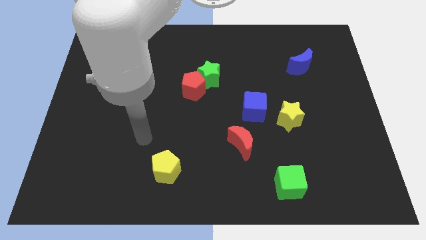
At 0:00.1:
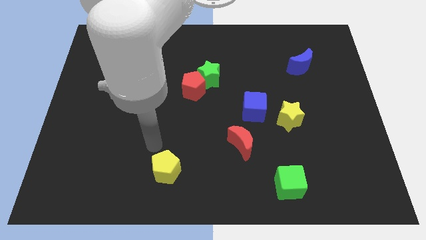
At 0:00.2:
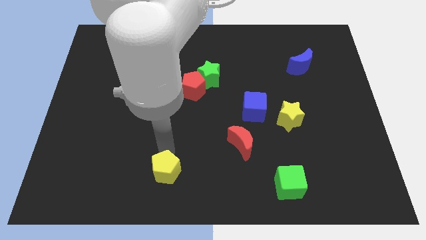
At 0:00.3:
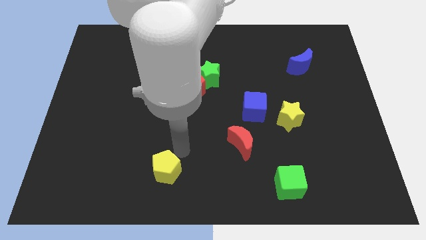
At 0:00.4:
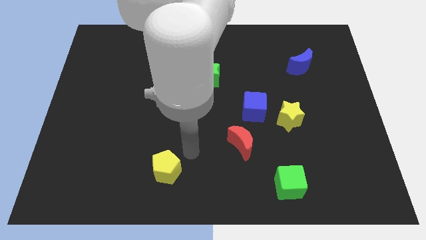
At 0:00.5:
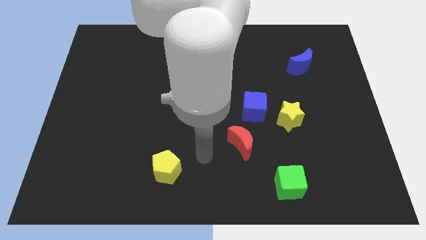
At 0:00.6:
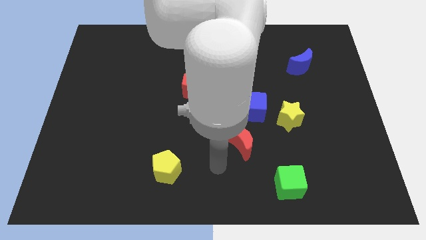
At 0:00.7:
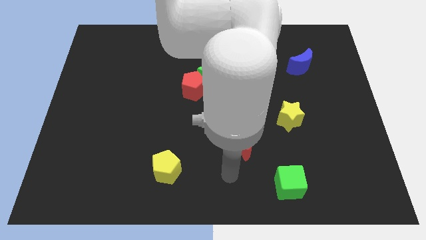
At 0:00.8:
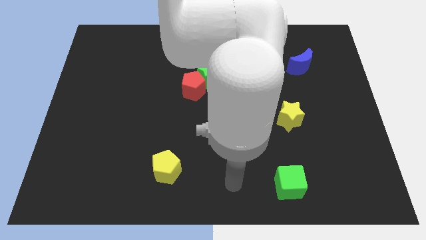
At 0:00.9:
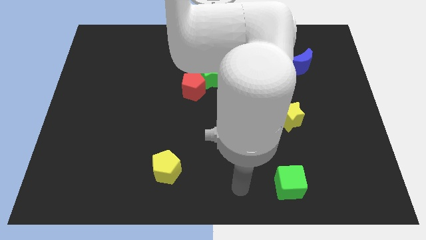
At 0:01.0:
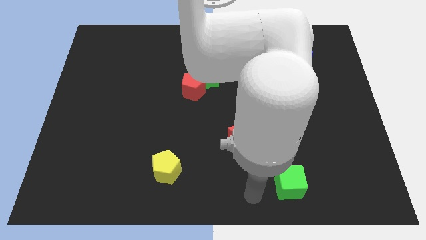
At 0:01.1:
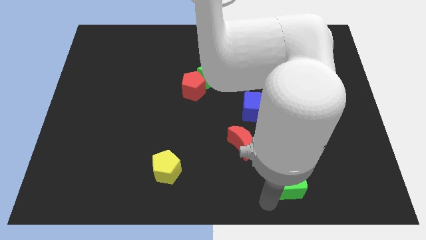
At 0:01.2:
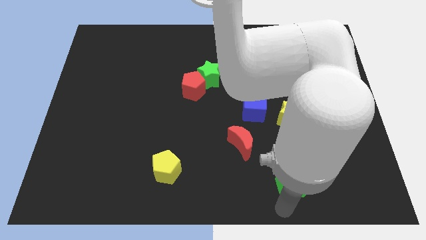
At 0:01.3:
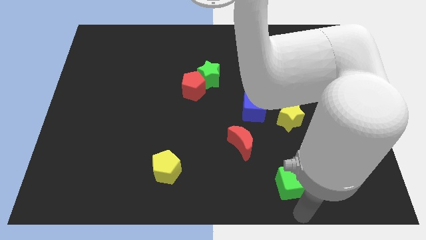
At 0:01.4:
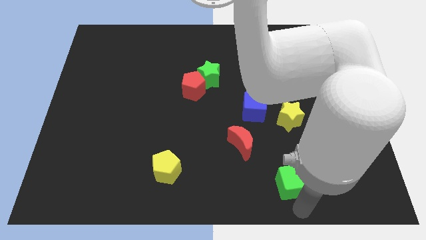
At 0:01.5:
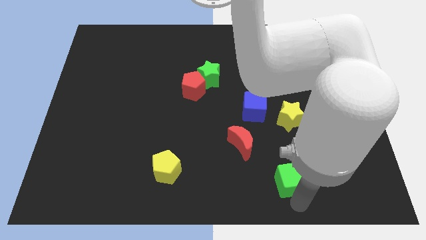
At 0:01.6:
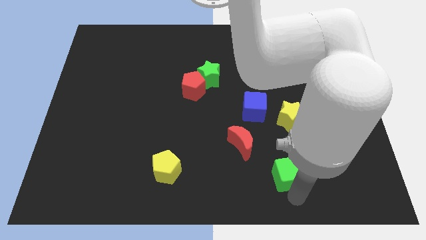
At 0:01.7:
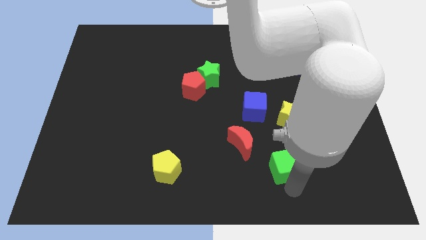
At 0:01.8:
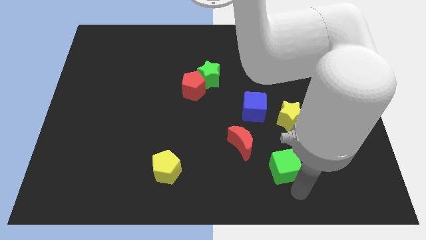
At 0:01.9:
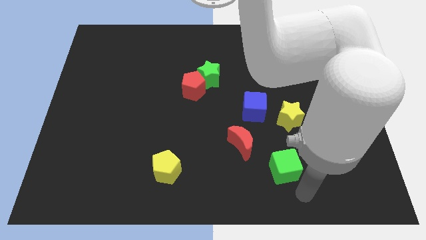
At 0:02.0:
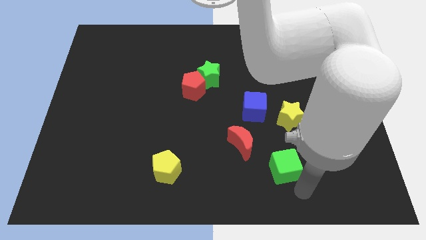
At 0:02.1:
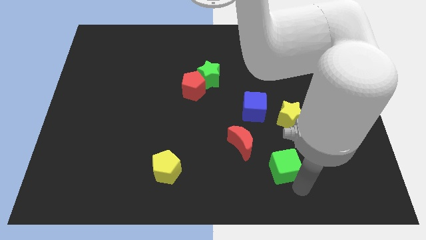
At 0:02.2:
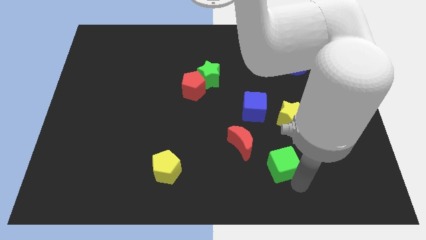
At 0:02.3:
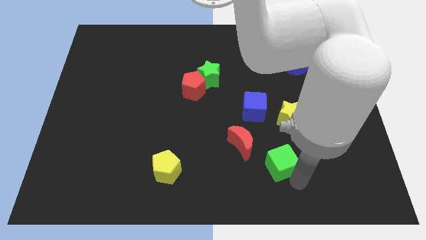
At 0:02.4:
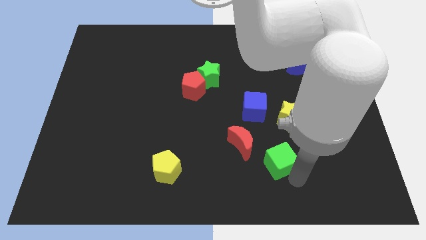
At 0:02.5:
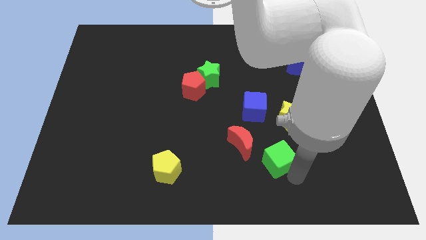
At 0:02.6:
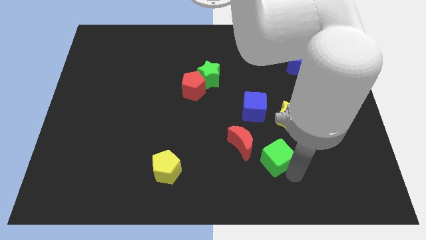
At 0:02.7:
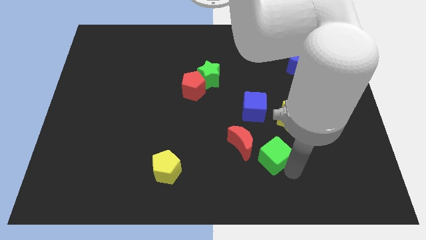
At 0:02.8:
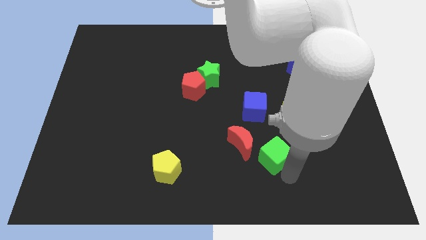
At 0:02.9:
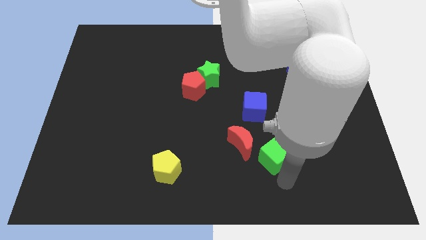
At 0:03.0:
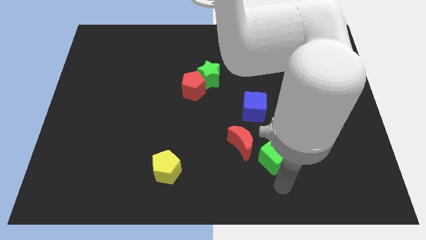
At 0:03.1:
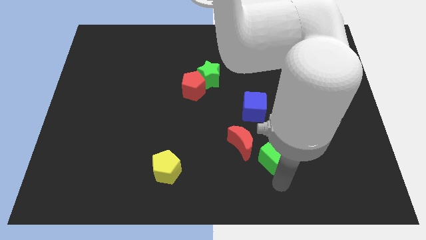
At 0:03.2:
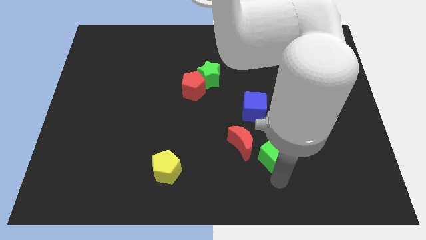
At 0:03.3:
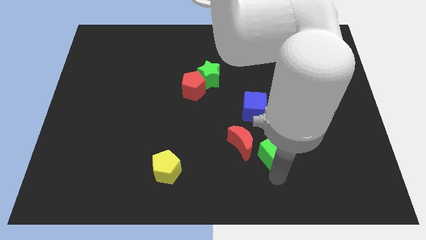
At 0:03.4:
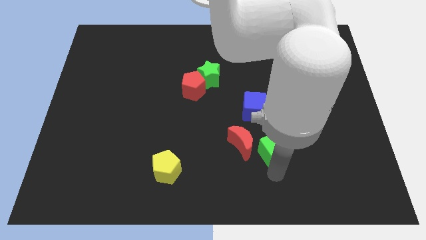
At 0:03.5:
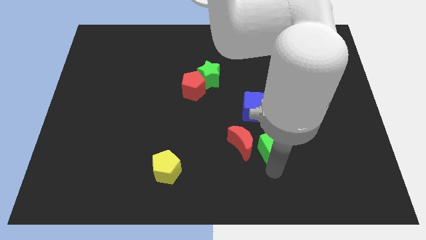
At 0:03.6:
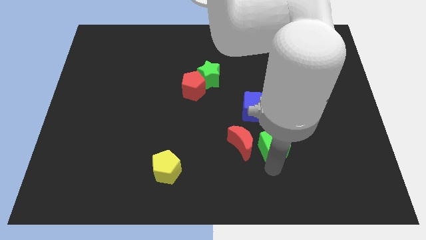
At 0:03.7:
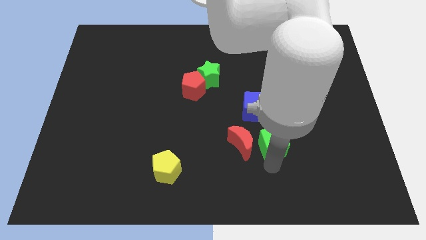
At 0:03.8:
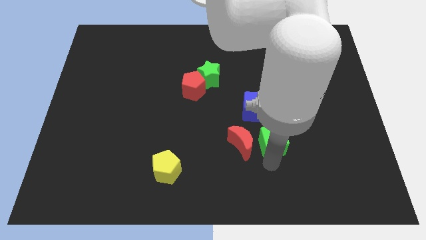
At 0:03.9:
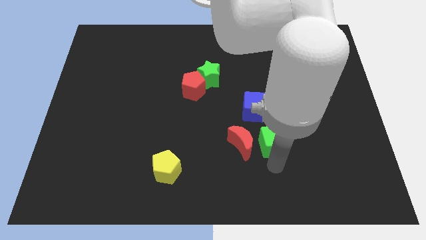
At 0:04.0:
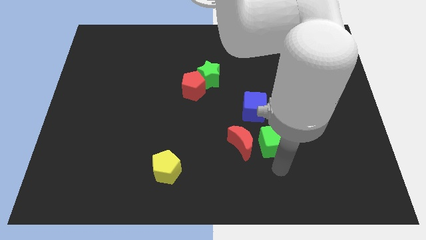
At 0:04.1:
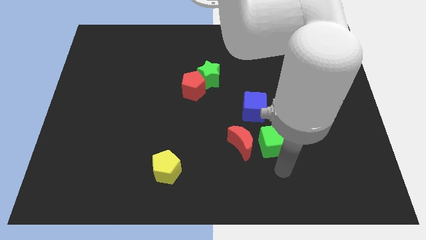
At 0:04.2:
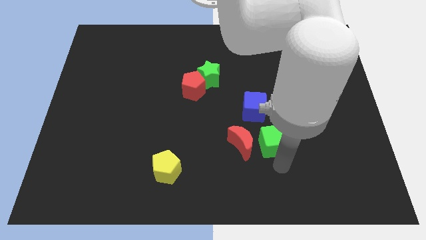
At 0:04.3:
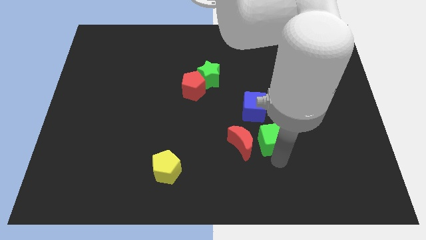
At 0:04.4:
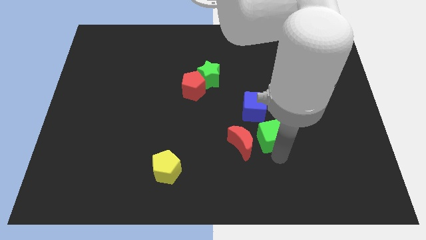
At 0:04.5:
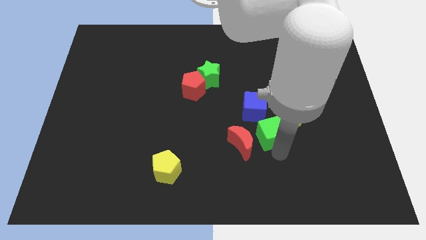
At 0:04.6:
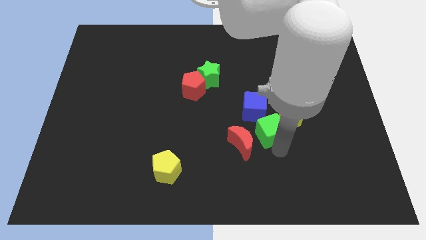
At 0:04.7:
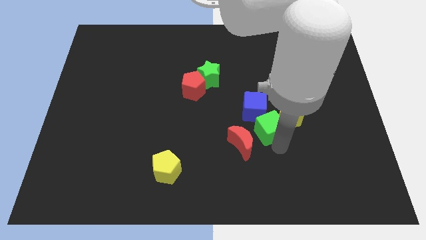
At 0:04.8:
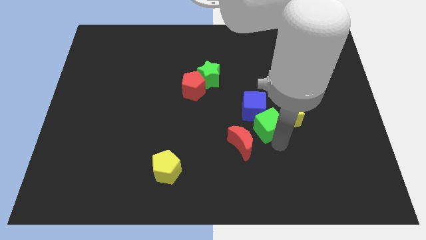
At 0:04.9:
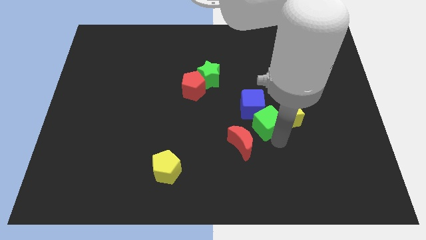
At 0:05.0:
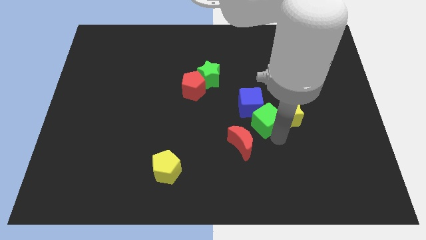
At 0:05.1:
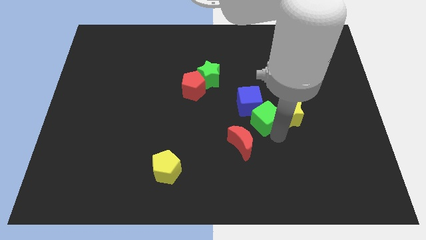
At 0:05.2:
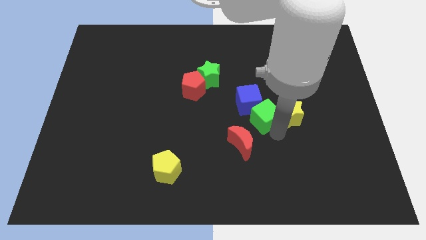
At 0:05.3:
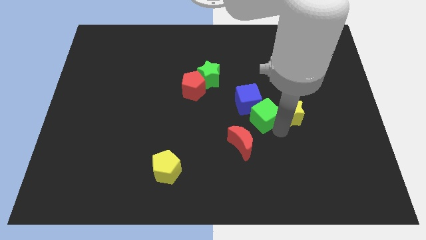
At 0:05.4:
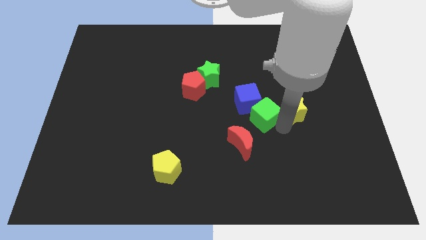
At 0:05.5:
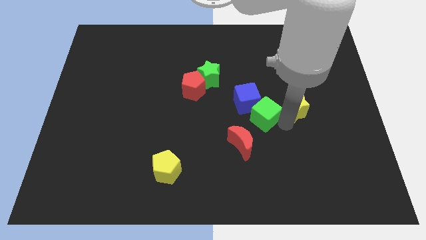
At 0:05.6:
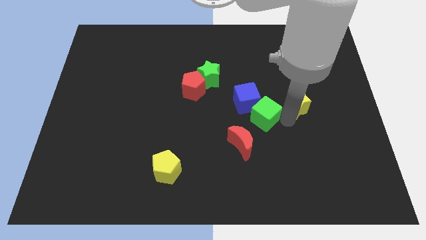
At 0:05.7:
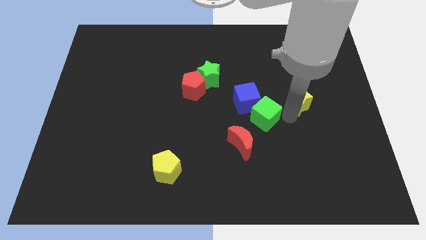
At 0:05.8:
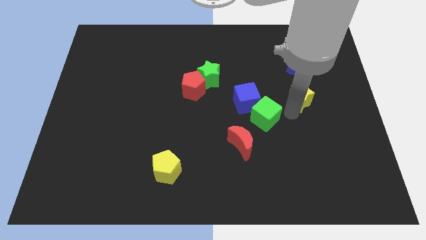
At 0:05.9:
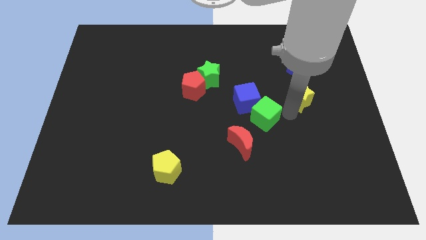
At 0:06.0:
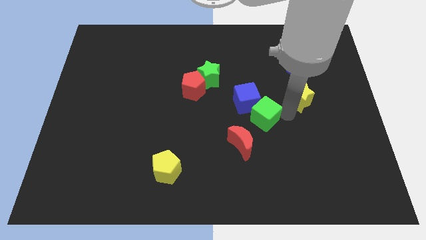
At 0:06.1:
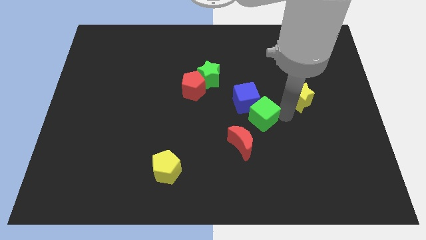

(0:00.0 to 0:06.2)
push the green cube to the middle of the board
